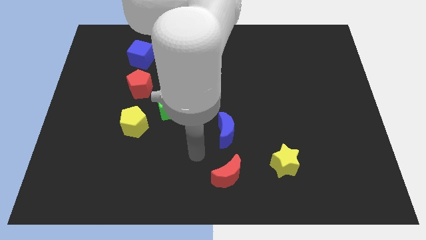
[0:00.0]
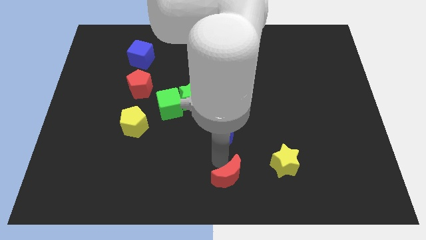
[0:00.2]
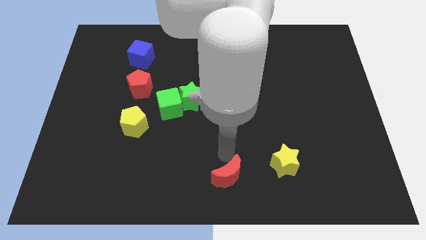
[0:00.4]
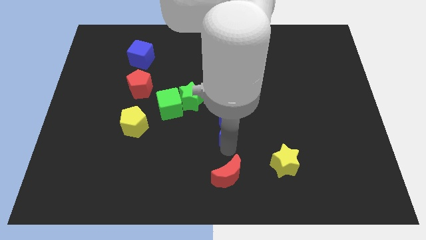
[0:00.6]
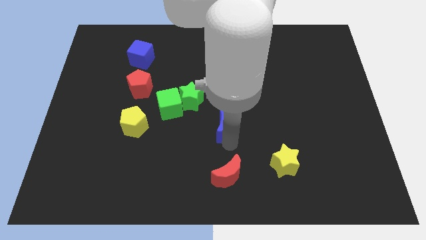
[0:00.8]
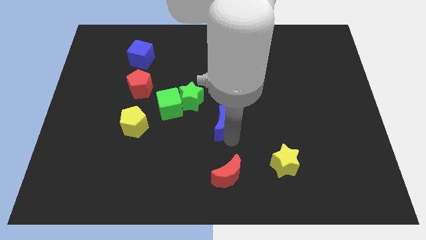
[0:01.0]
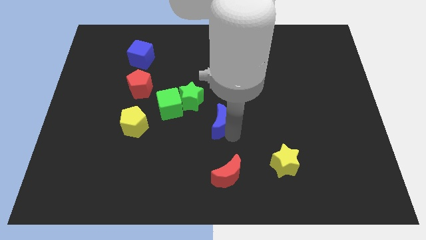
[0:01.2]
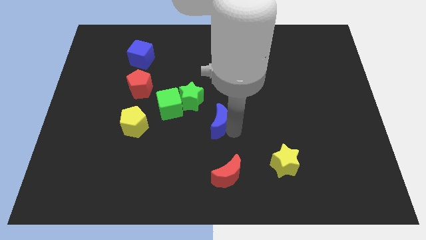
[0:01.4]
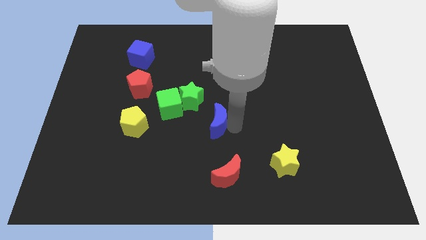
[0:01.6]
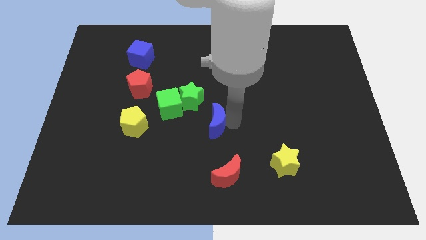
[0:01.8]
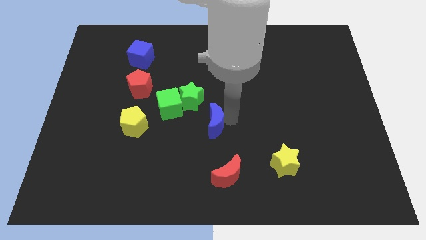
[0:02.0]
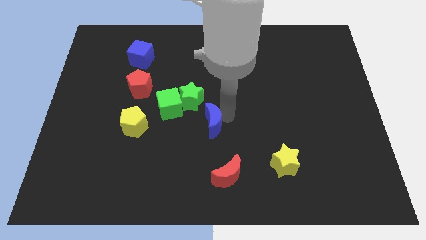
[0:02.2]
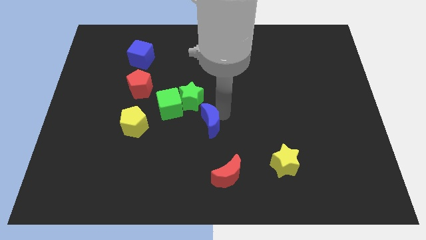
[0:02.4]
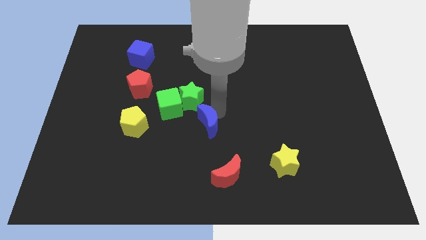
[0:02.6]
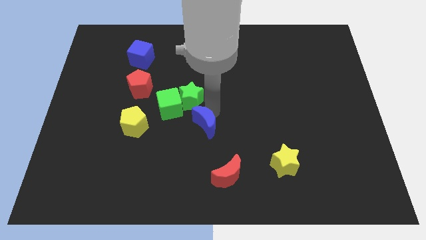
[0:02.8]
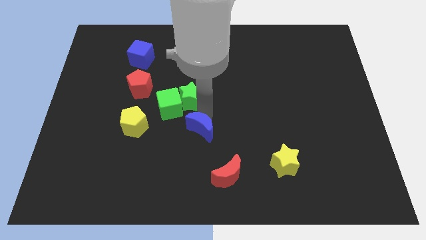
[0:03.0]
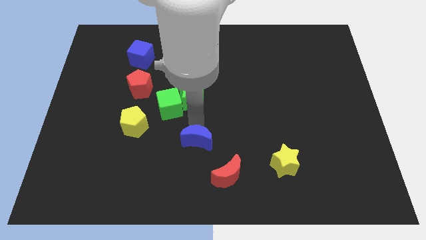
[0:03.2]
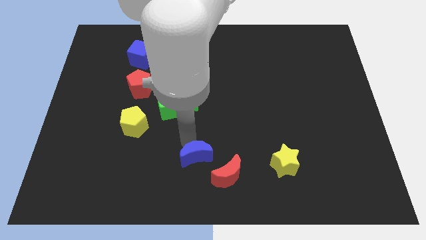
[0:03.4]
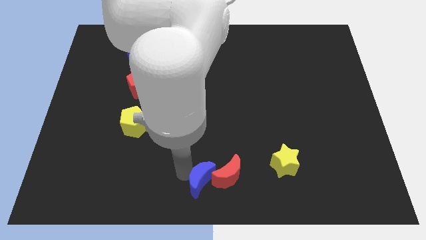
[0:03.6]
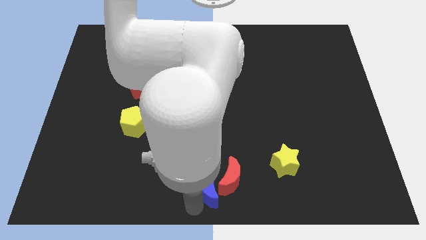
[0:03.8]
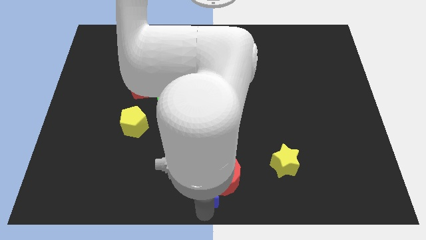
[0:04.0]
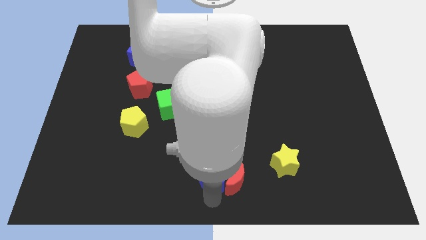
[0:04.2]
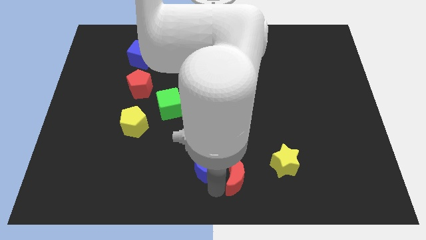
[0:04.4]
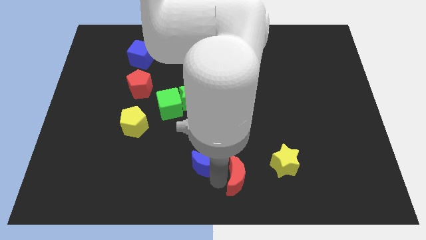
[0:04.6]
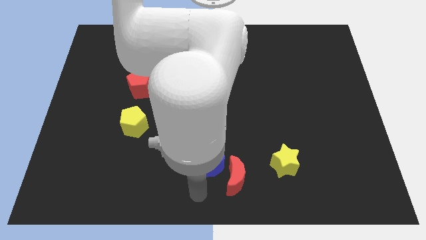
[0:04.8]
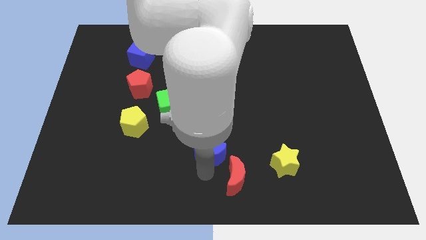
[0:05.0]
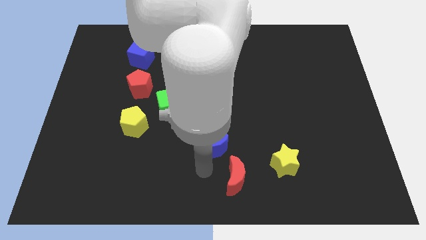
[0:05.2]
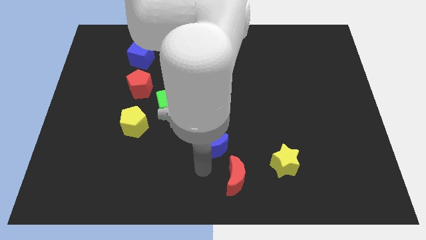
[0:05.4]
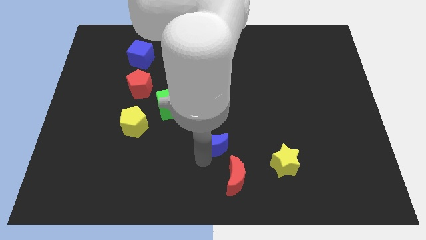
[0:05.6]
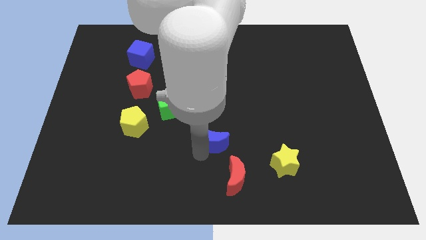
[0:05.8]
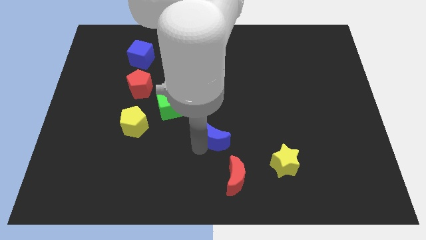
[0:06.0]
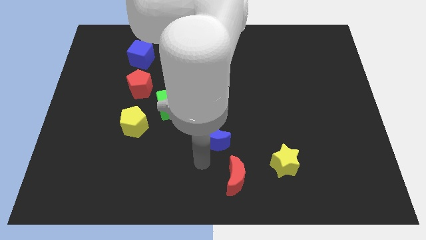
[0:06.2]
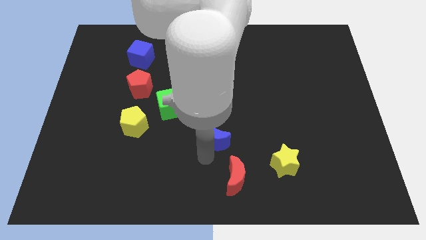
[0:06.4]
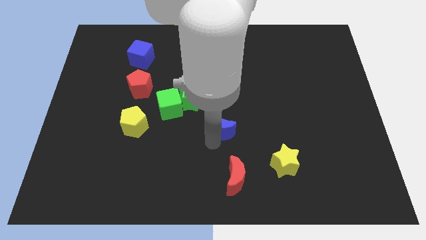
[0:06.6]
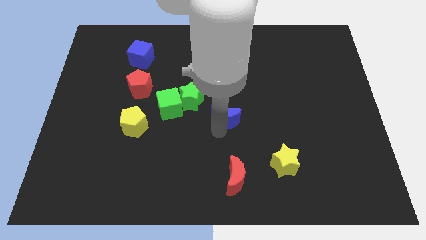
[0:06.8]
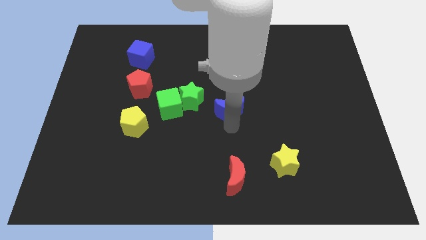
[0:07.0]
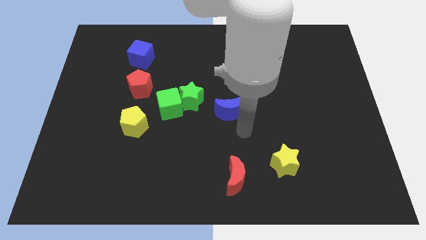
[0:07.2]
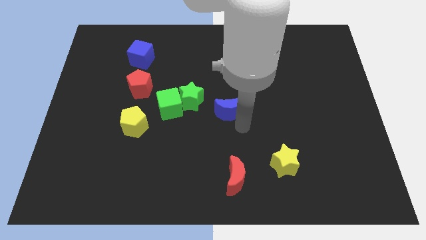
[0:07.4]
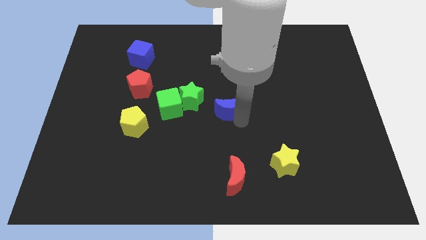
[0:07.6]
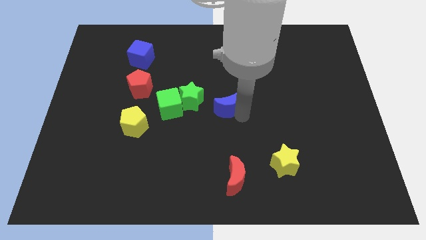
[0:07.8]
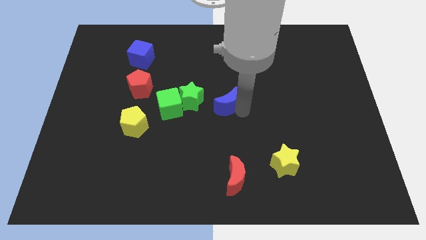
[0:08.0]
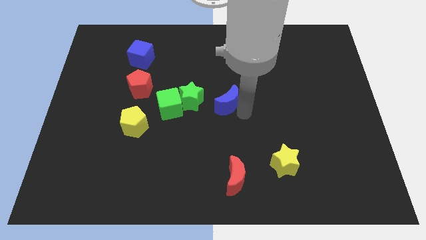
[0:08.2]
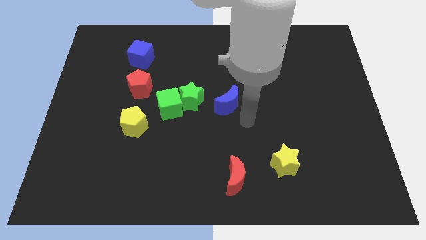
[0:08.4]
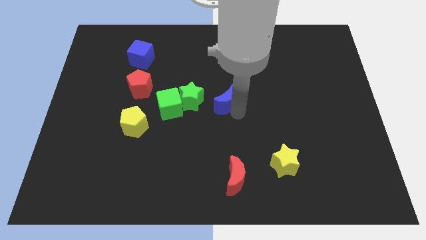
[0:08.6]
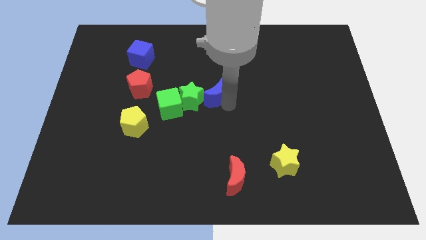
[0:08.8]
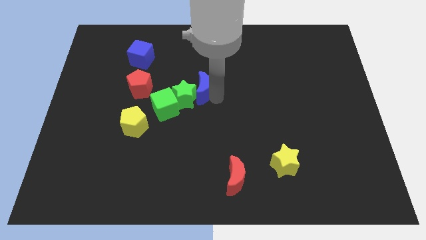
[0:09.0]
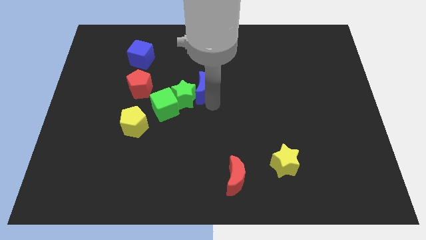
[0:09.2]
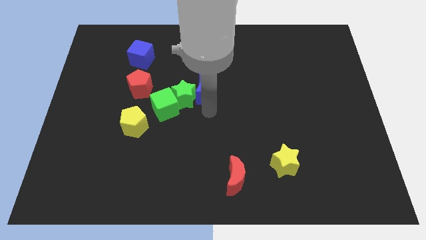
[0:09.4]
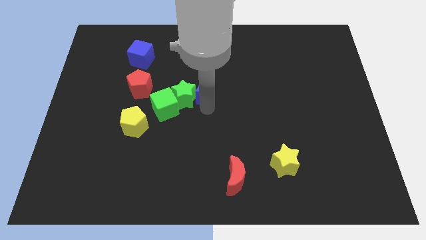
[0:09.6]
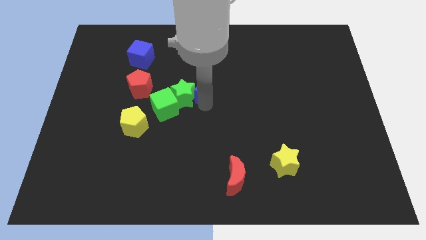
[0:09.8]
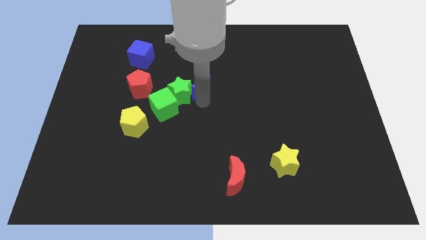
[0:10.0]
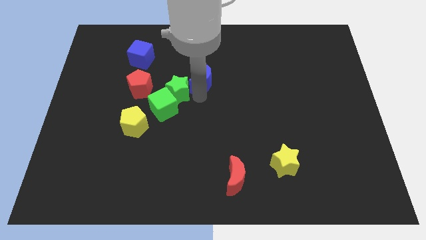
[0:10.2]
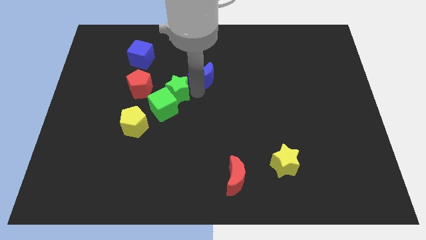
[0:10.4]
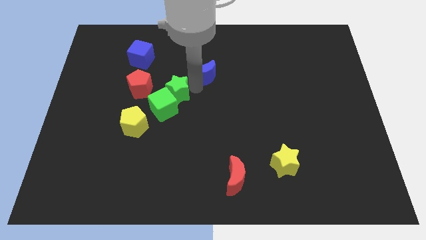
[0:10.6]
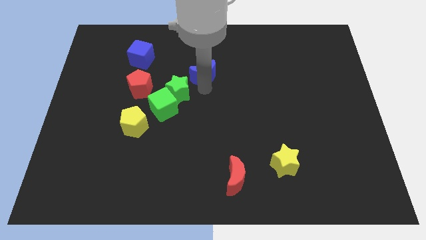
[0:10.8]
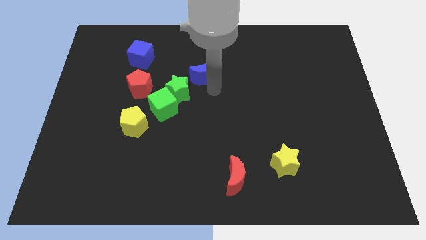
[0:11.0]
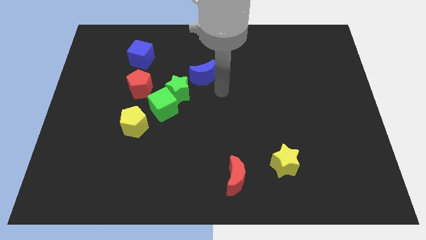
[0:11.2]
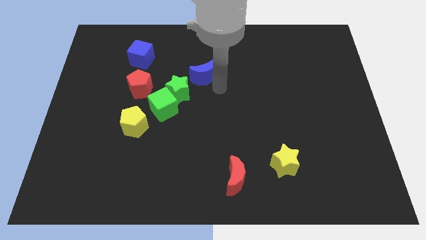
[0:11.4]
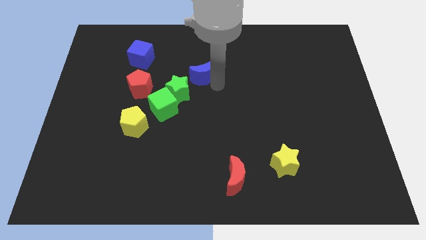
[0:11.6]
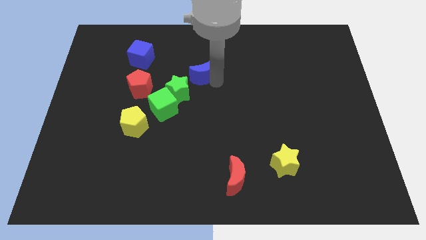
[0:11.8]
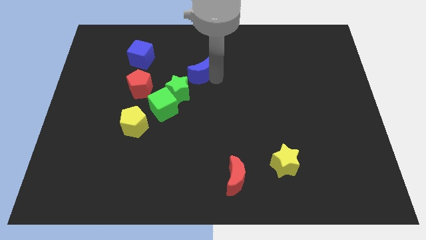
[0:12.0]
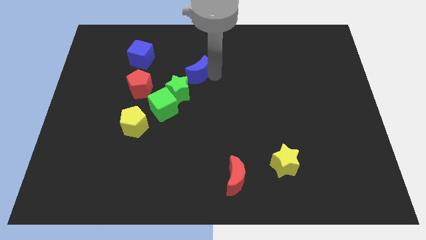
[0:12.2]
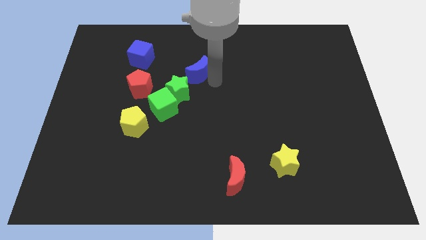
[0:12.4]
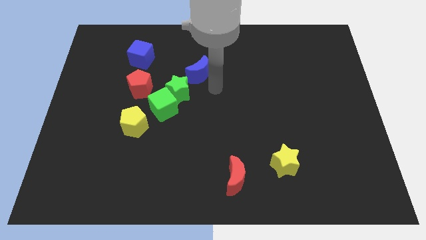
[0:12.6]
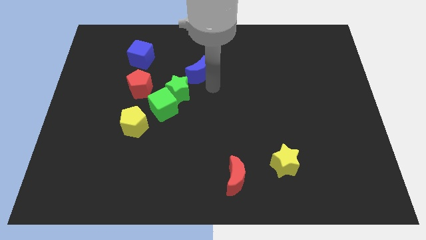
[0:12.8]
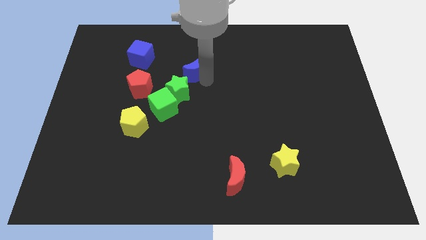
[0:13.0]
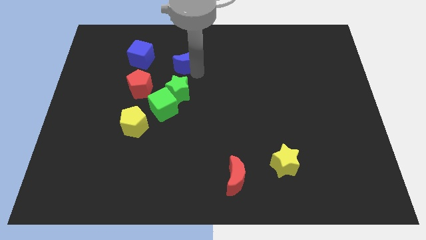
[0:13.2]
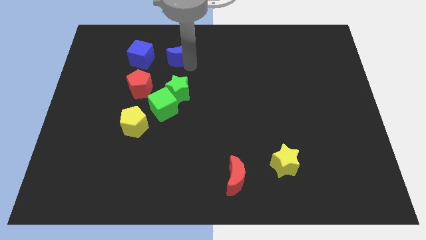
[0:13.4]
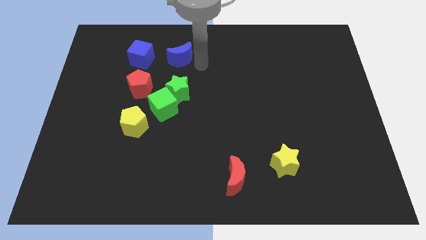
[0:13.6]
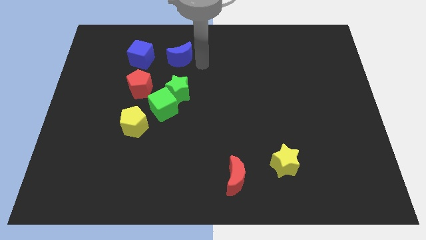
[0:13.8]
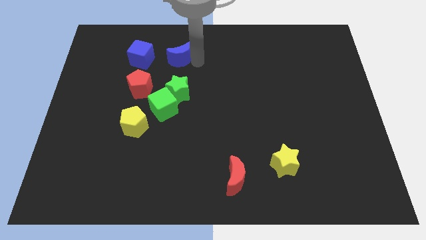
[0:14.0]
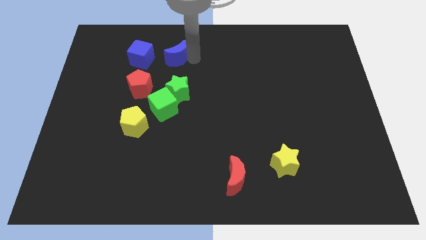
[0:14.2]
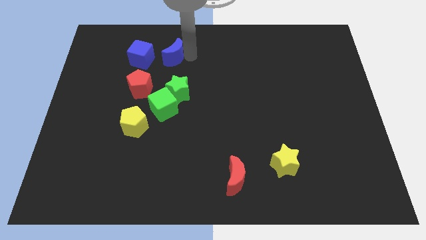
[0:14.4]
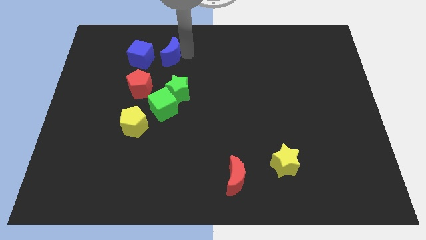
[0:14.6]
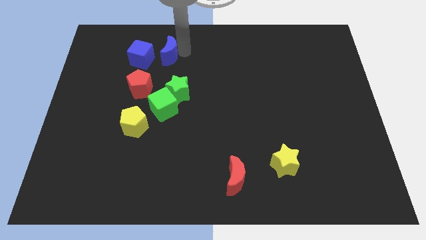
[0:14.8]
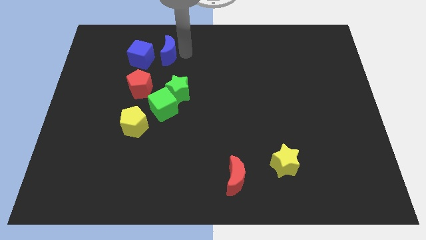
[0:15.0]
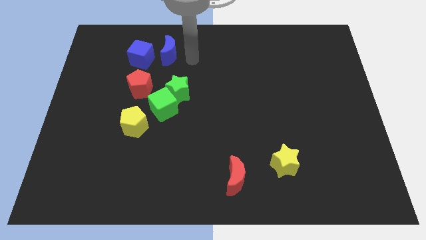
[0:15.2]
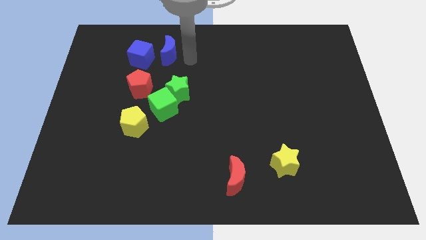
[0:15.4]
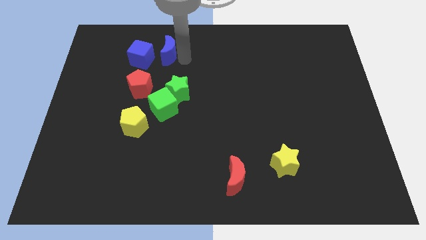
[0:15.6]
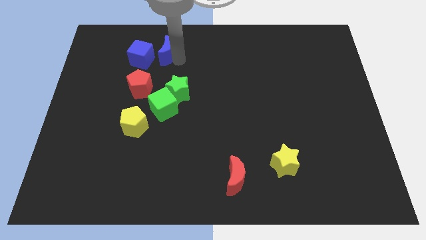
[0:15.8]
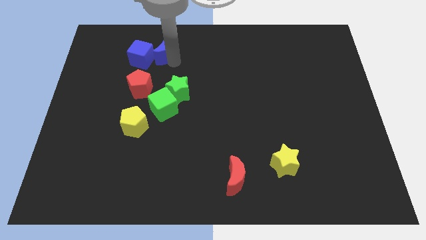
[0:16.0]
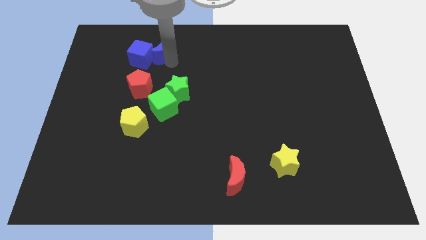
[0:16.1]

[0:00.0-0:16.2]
slide the blue moon to the top side of the red pentagon
